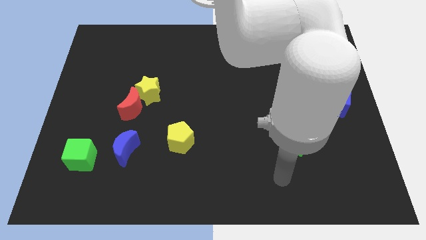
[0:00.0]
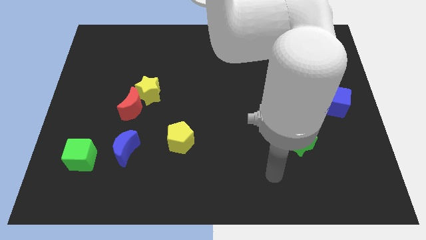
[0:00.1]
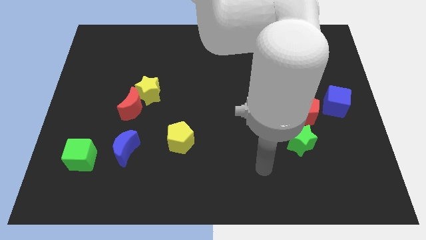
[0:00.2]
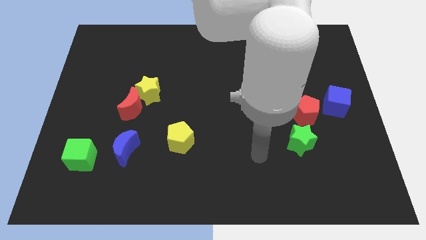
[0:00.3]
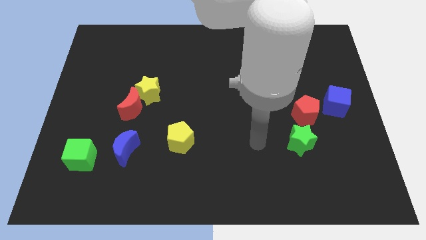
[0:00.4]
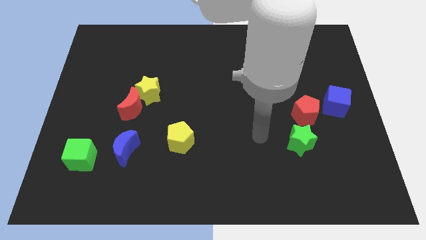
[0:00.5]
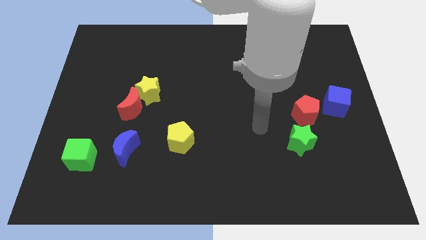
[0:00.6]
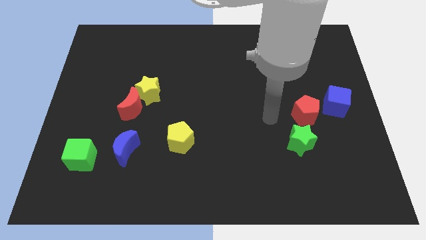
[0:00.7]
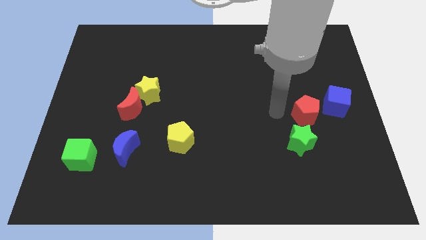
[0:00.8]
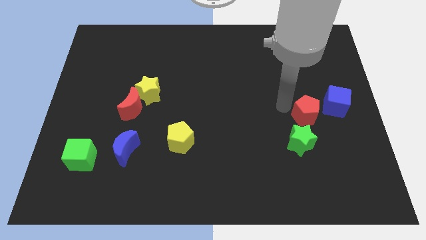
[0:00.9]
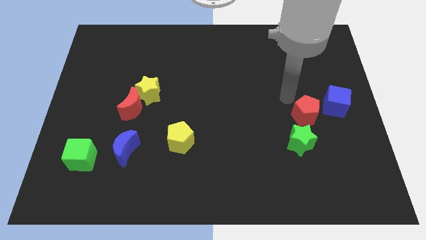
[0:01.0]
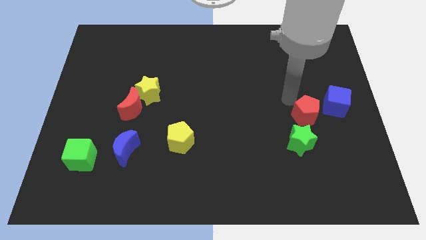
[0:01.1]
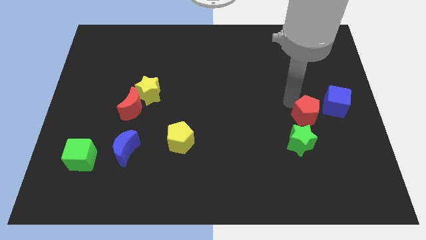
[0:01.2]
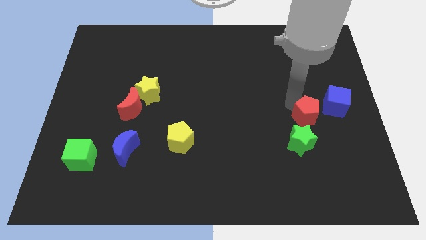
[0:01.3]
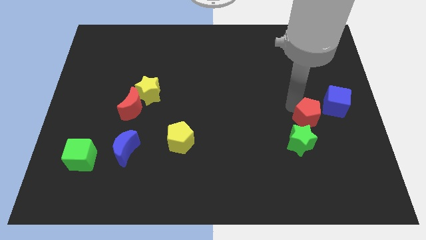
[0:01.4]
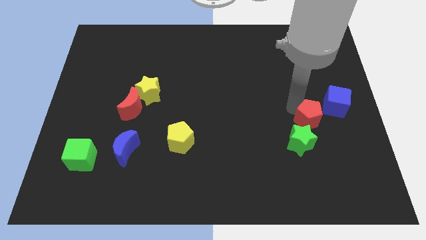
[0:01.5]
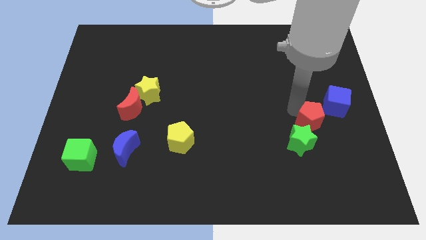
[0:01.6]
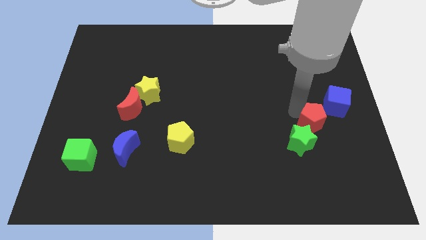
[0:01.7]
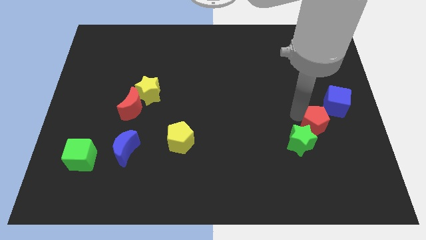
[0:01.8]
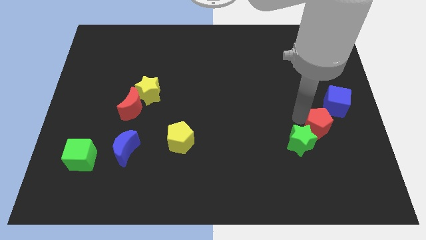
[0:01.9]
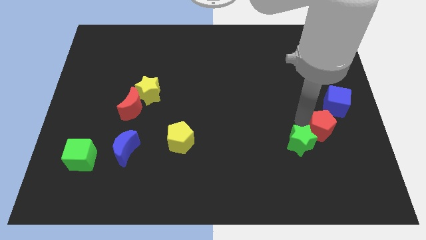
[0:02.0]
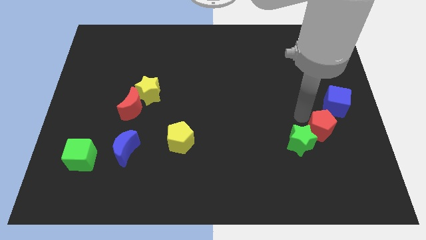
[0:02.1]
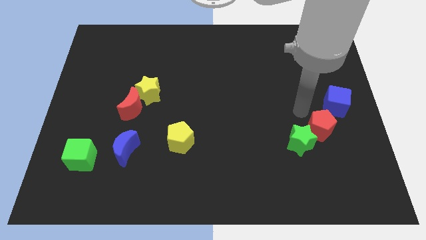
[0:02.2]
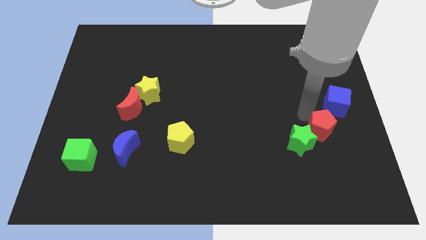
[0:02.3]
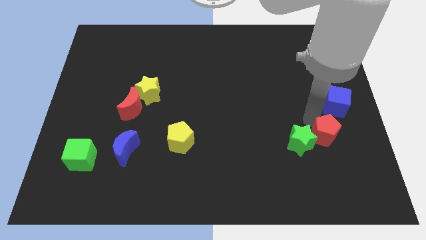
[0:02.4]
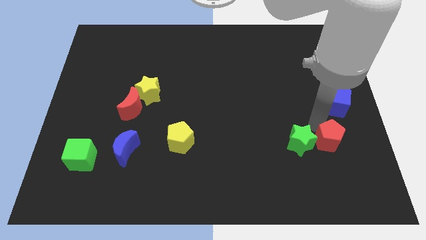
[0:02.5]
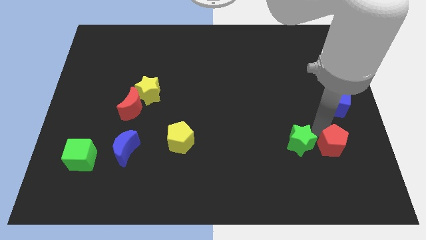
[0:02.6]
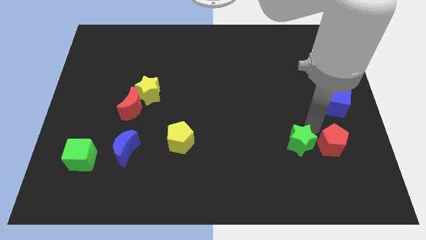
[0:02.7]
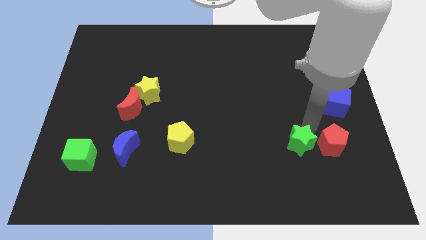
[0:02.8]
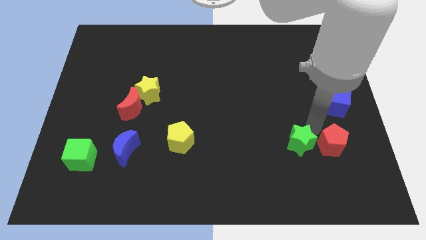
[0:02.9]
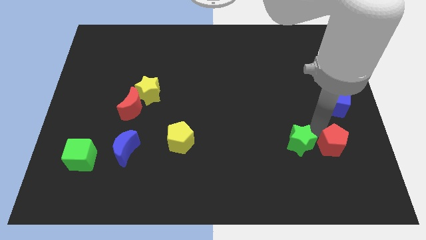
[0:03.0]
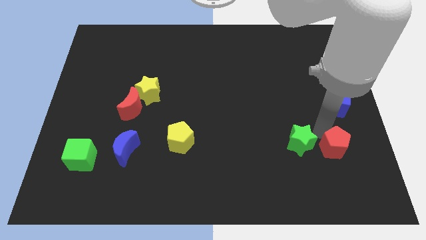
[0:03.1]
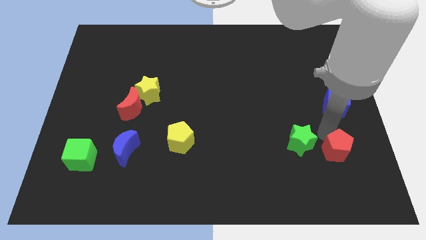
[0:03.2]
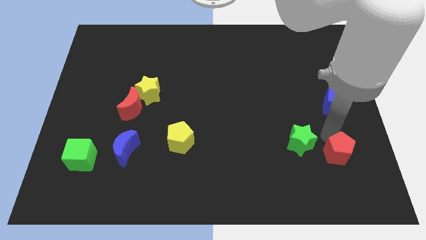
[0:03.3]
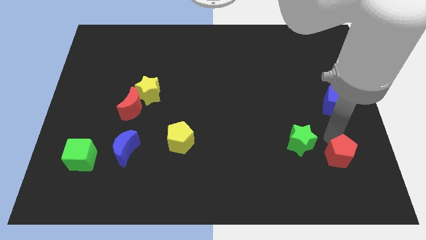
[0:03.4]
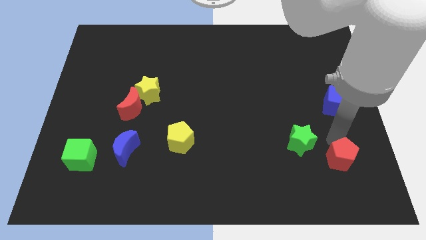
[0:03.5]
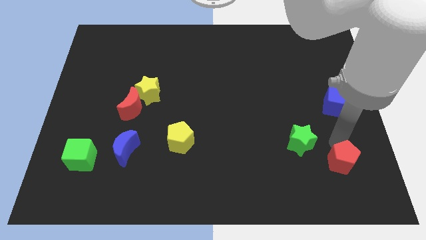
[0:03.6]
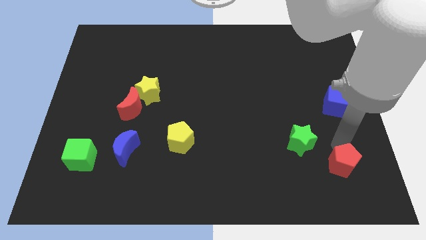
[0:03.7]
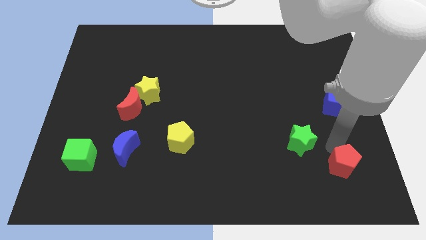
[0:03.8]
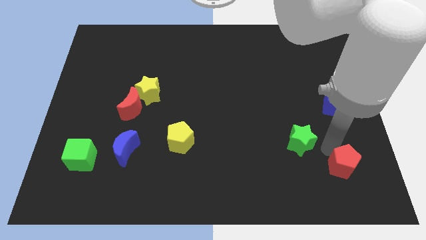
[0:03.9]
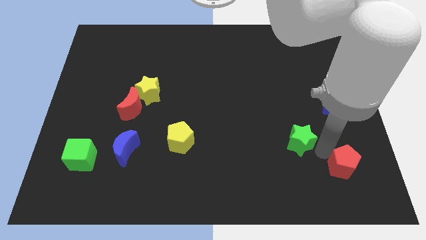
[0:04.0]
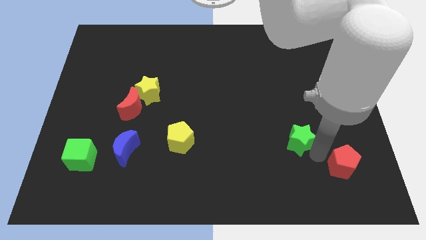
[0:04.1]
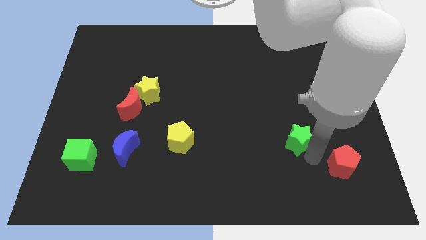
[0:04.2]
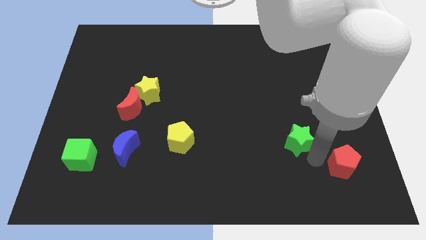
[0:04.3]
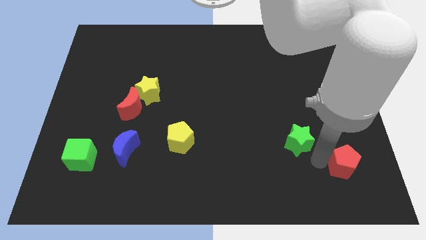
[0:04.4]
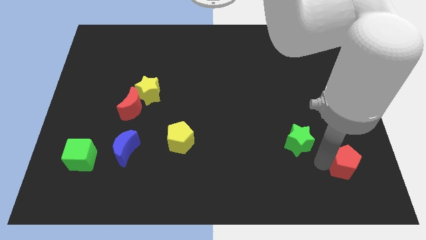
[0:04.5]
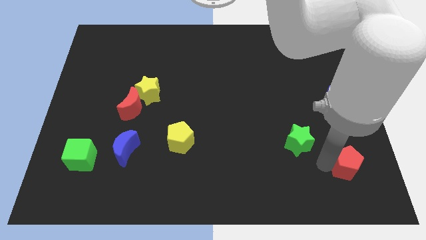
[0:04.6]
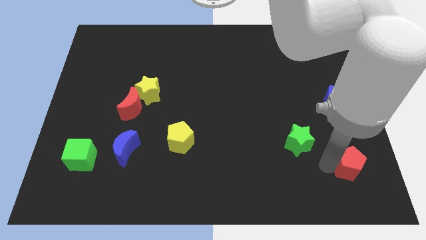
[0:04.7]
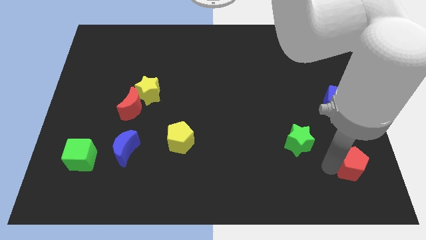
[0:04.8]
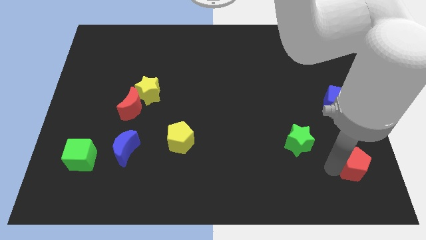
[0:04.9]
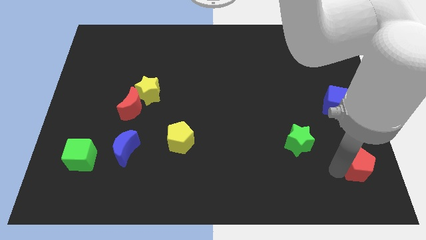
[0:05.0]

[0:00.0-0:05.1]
slide the red pentagon to the bottom right of the board
